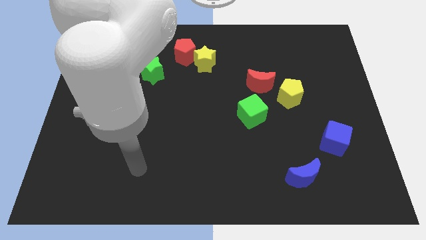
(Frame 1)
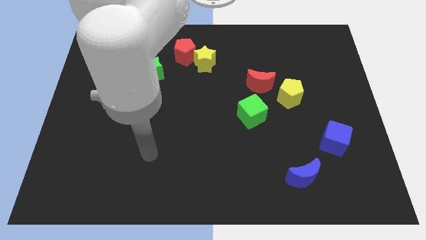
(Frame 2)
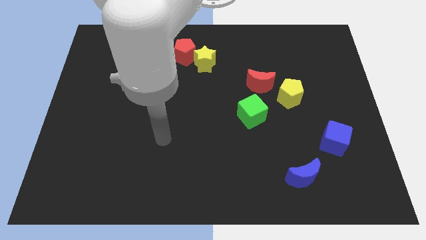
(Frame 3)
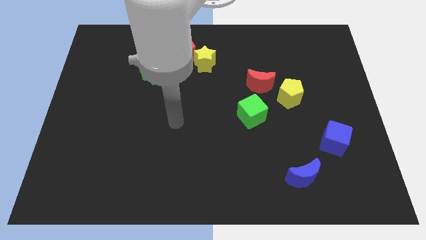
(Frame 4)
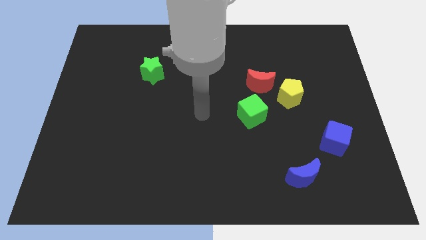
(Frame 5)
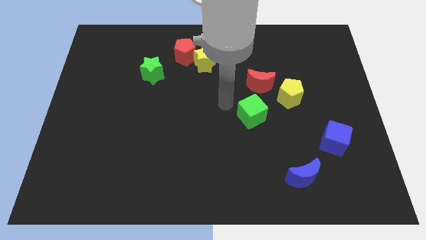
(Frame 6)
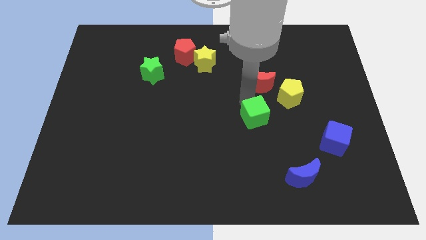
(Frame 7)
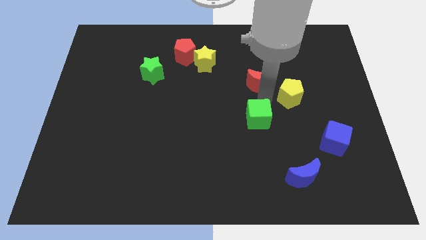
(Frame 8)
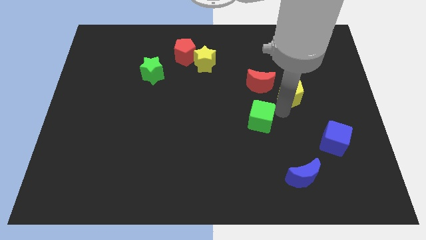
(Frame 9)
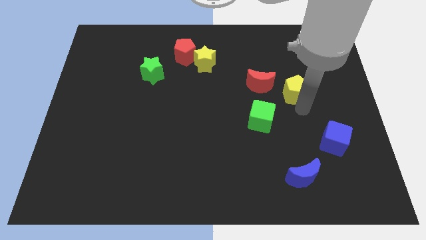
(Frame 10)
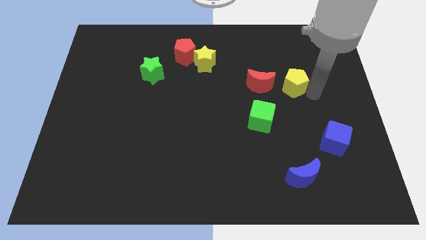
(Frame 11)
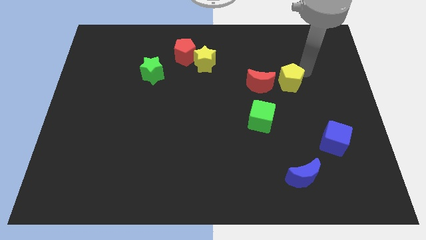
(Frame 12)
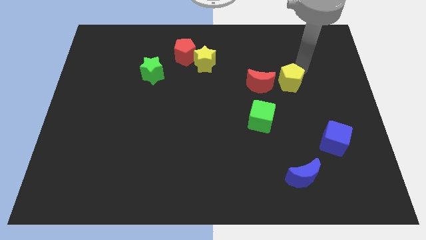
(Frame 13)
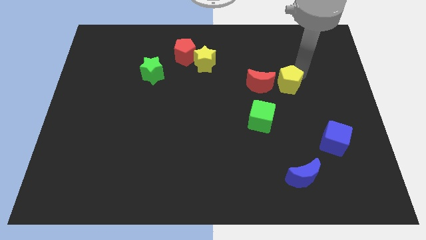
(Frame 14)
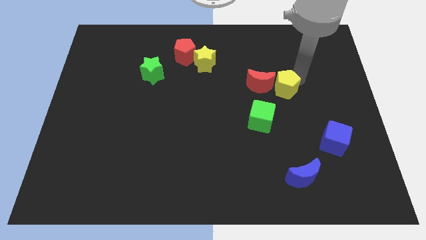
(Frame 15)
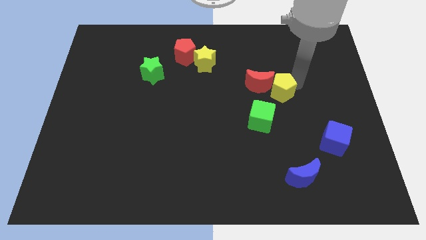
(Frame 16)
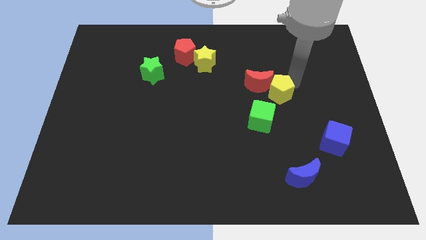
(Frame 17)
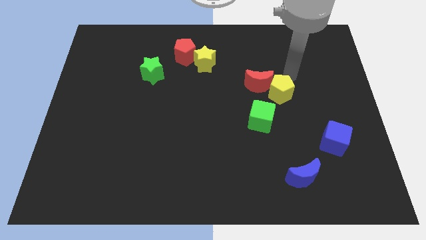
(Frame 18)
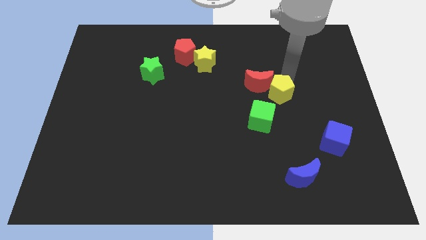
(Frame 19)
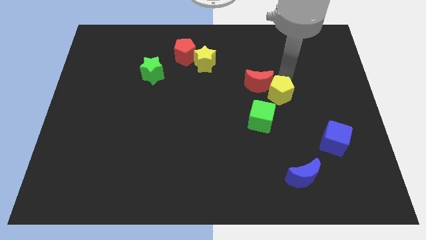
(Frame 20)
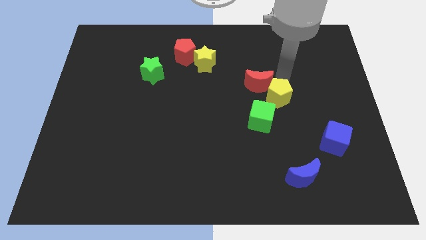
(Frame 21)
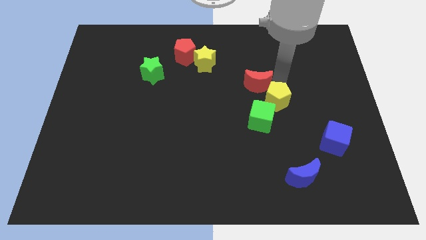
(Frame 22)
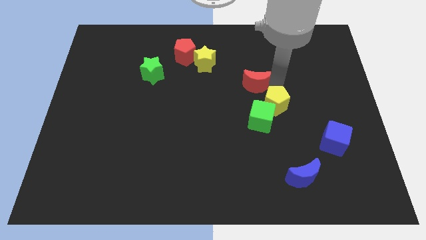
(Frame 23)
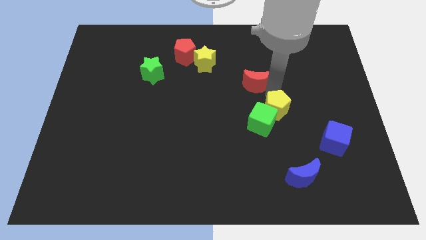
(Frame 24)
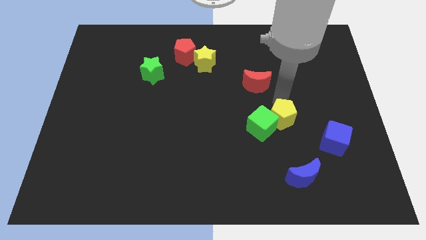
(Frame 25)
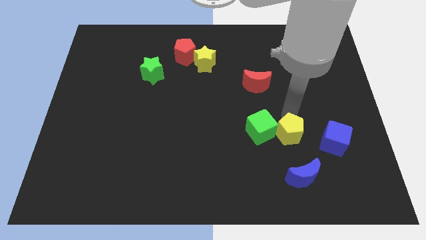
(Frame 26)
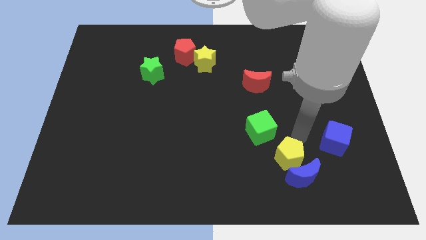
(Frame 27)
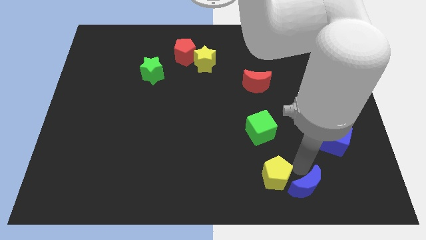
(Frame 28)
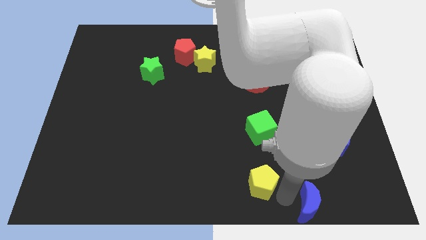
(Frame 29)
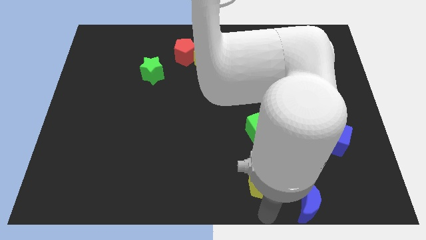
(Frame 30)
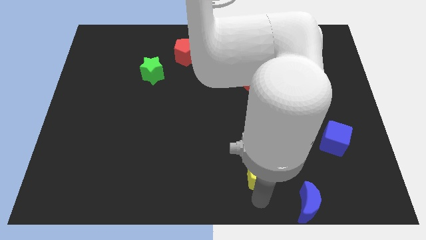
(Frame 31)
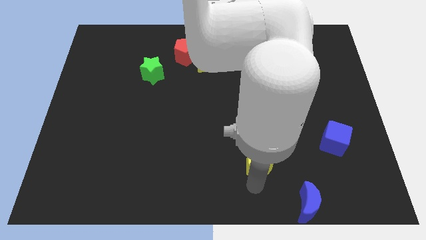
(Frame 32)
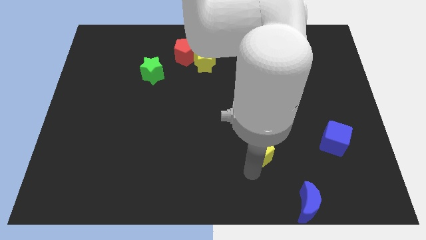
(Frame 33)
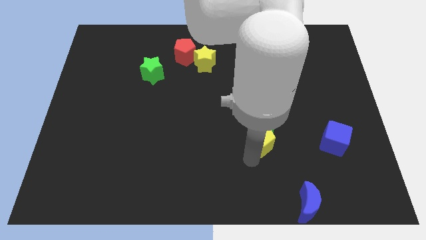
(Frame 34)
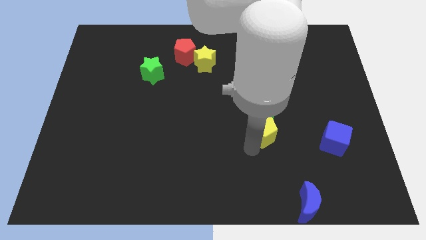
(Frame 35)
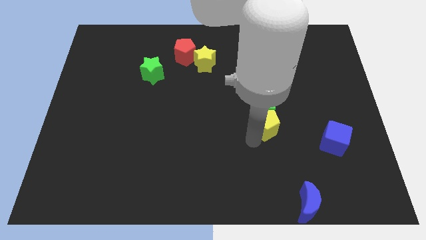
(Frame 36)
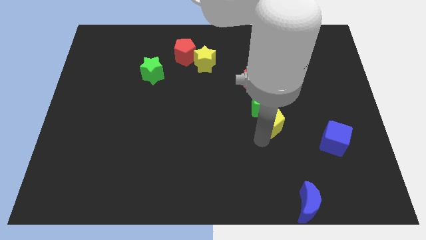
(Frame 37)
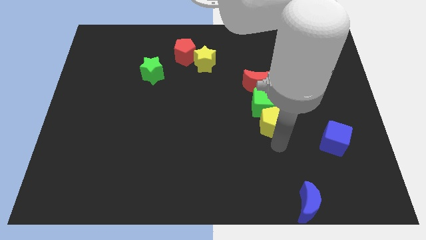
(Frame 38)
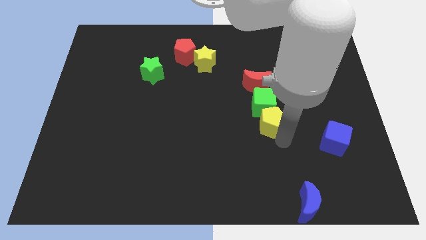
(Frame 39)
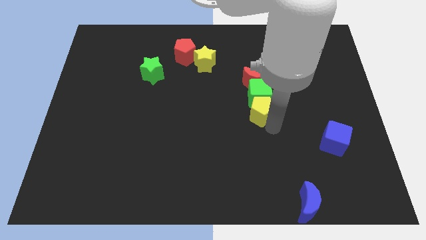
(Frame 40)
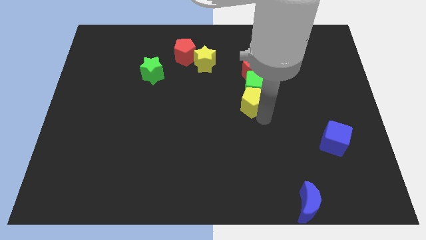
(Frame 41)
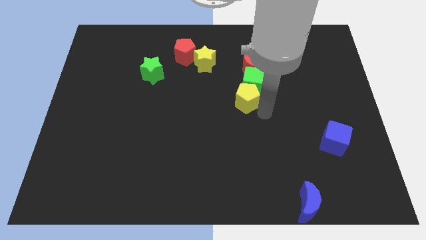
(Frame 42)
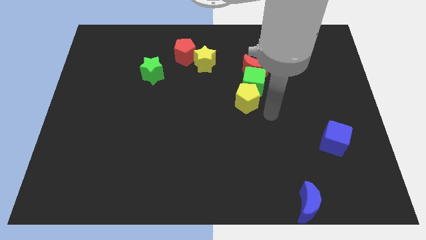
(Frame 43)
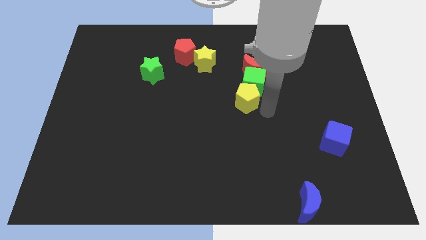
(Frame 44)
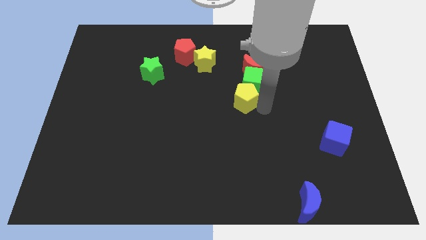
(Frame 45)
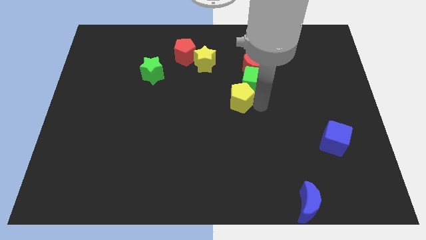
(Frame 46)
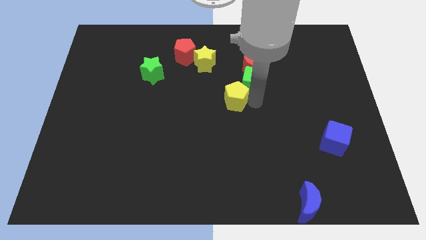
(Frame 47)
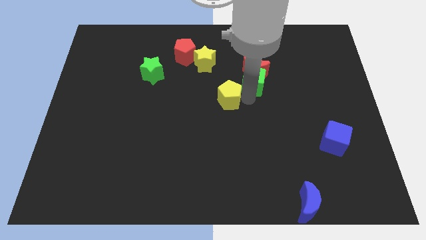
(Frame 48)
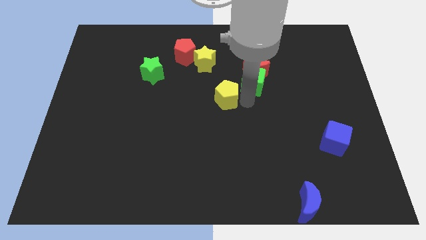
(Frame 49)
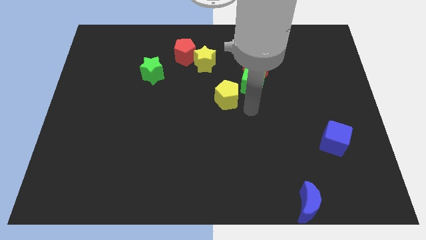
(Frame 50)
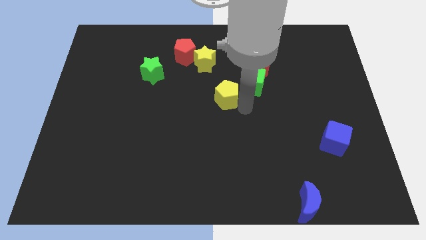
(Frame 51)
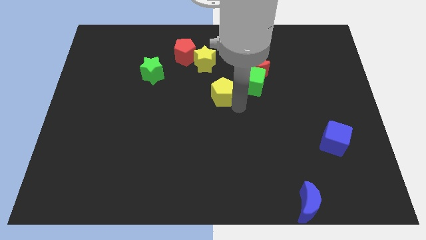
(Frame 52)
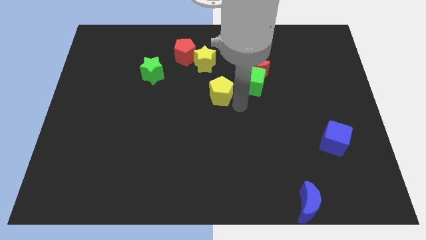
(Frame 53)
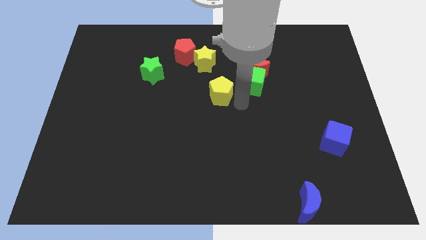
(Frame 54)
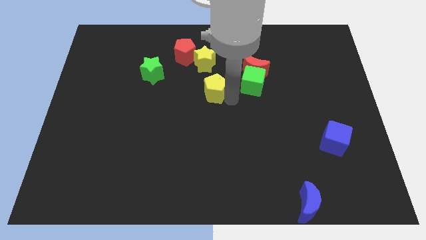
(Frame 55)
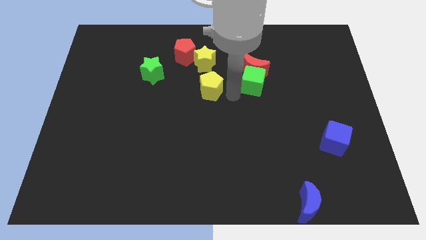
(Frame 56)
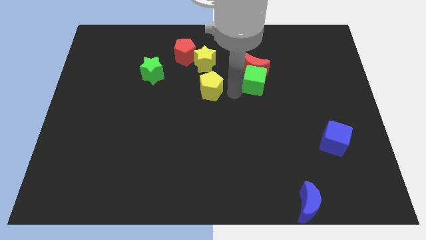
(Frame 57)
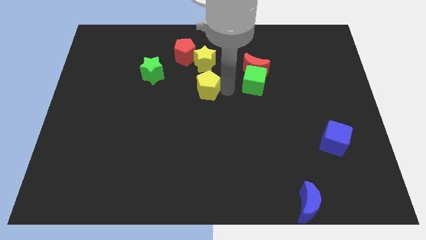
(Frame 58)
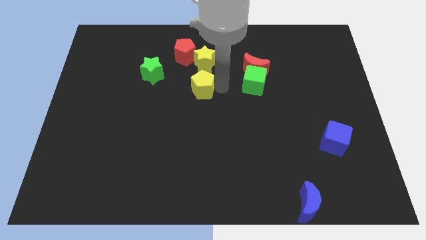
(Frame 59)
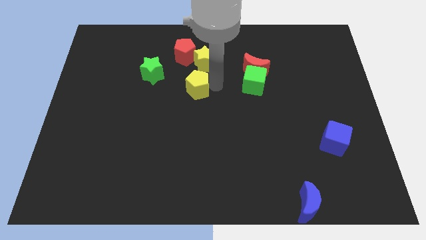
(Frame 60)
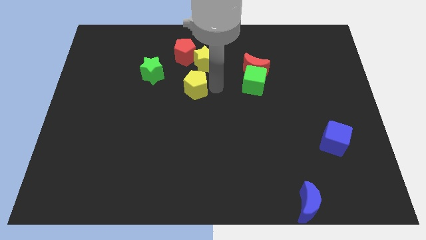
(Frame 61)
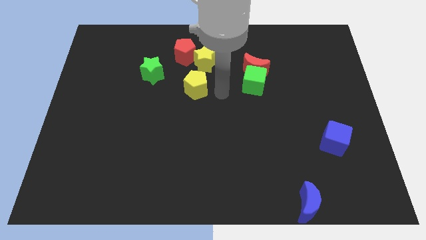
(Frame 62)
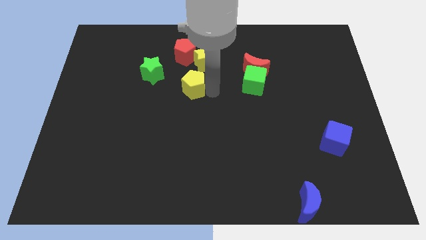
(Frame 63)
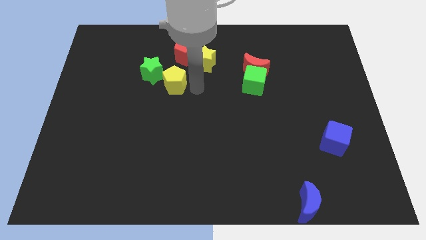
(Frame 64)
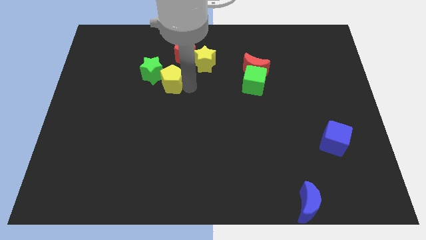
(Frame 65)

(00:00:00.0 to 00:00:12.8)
push the yellow pentagon to the green star

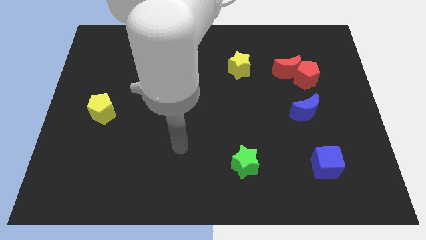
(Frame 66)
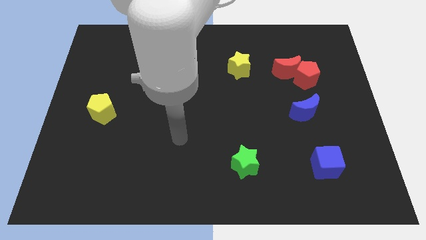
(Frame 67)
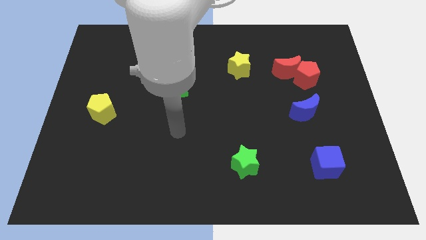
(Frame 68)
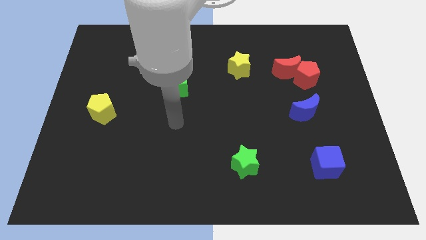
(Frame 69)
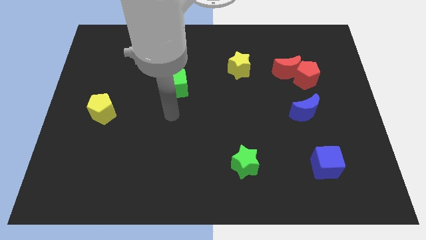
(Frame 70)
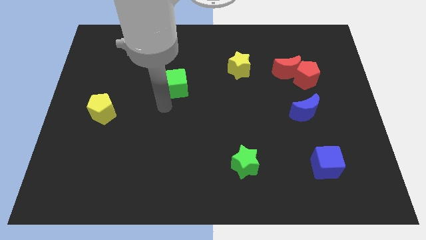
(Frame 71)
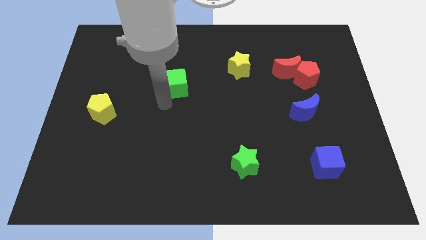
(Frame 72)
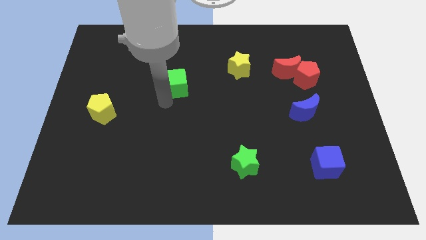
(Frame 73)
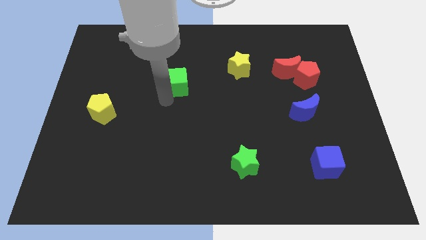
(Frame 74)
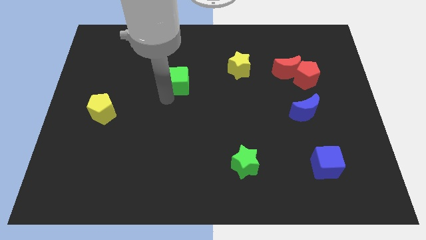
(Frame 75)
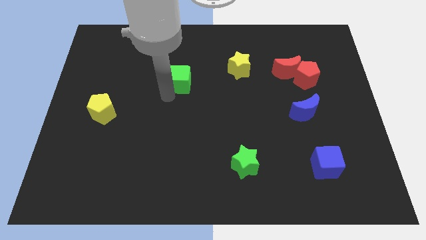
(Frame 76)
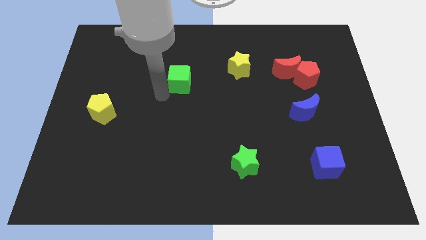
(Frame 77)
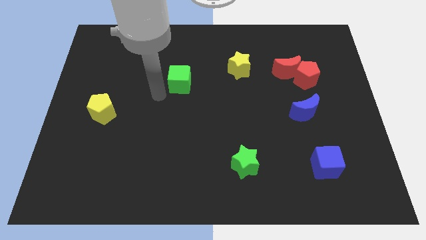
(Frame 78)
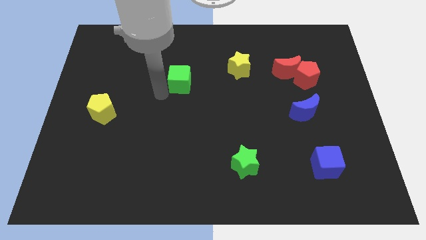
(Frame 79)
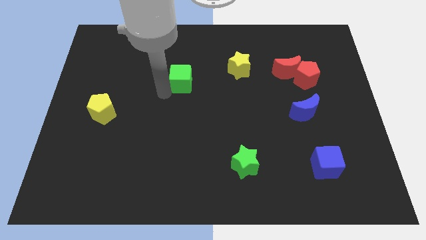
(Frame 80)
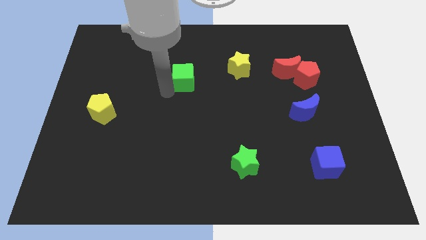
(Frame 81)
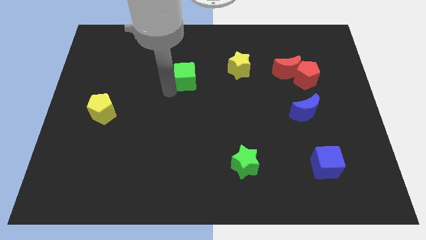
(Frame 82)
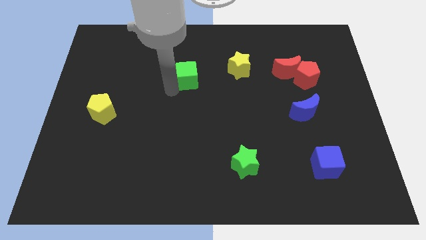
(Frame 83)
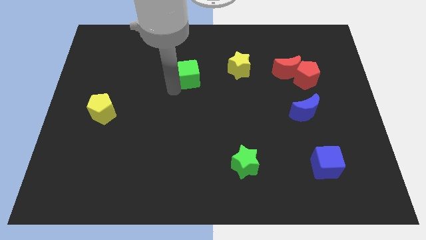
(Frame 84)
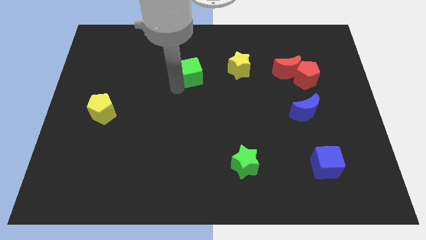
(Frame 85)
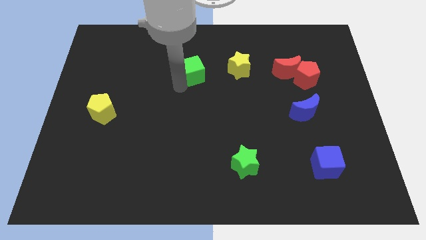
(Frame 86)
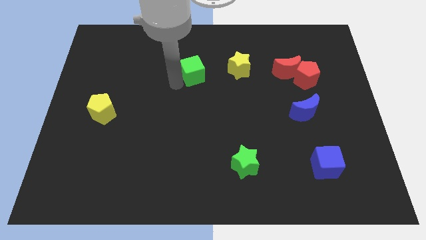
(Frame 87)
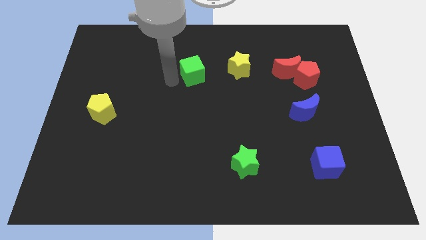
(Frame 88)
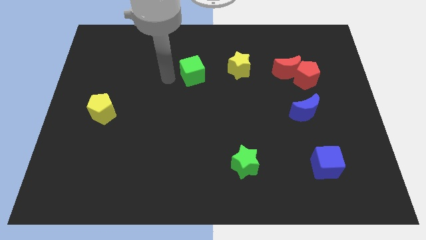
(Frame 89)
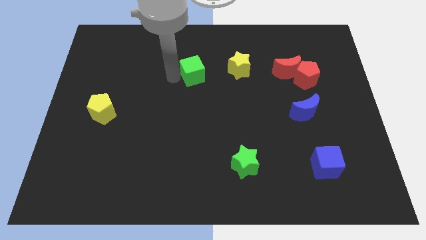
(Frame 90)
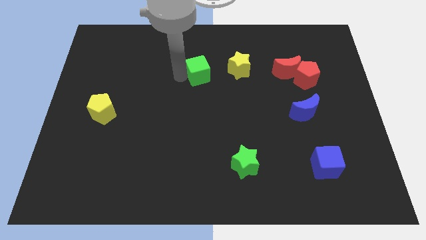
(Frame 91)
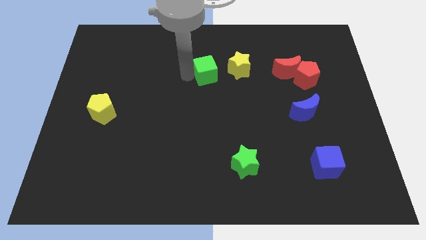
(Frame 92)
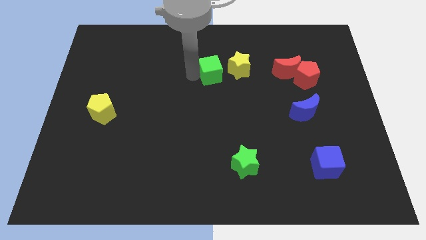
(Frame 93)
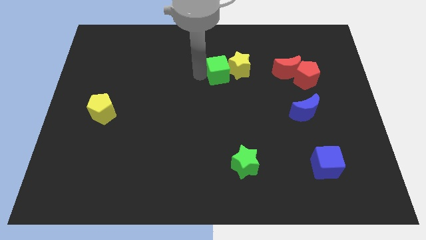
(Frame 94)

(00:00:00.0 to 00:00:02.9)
slide the green cube next to the yellow star
